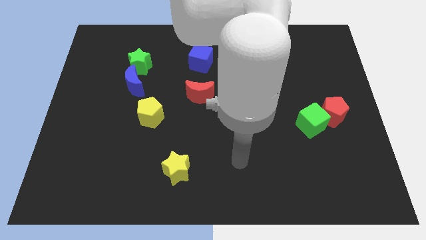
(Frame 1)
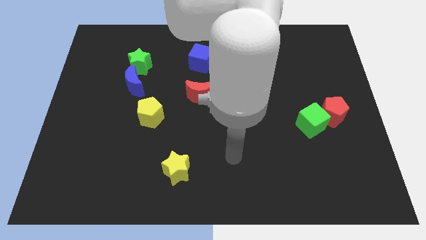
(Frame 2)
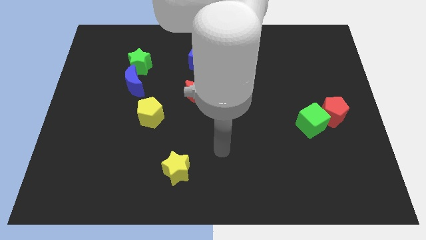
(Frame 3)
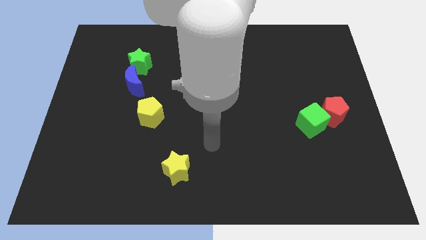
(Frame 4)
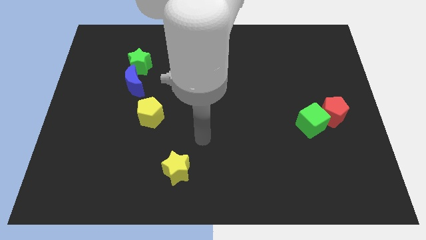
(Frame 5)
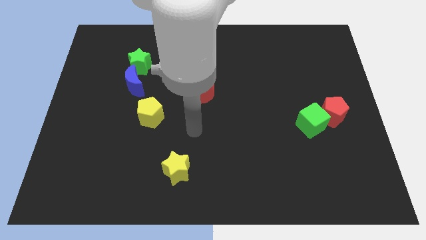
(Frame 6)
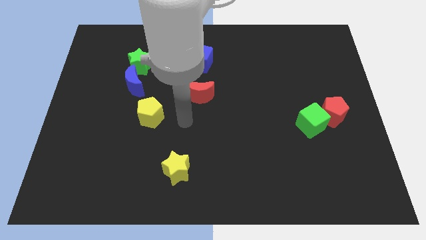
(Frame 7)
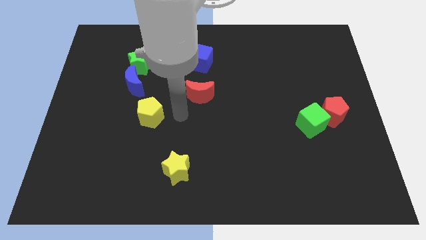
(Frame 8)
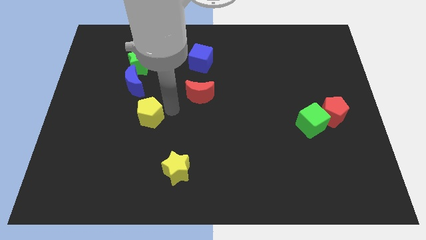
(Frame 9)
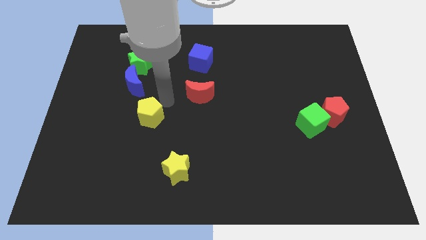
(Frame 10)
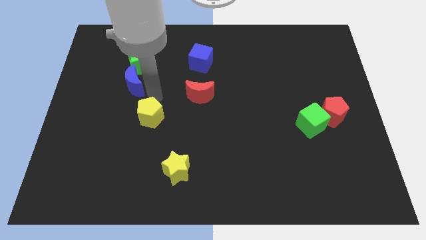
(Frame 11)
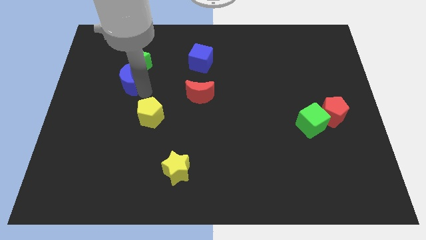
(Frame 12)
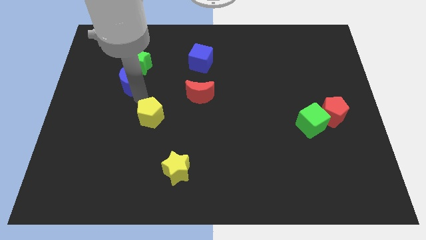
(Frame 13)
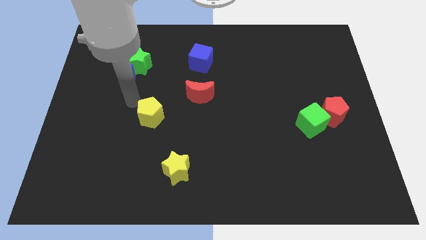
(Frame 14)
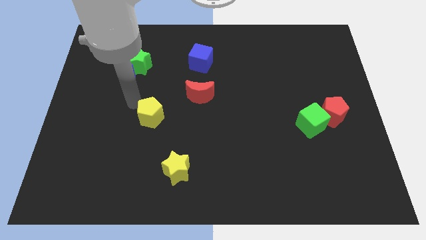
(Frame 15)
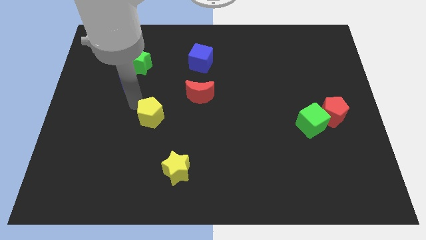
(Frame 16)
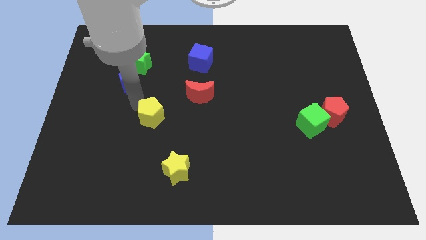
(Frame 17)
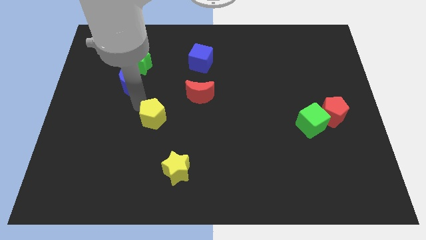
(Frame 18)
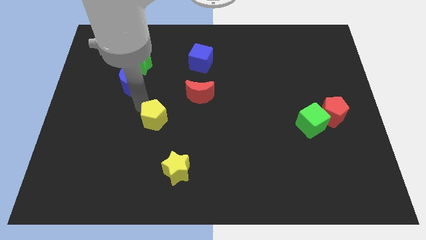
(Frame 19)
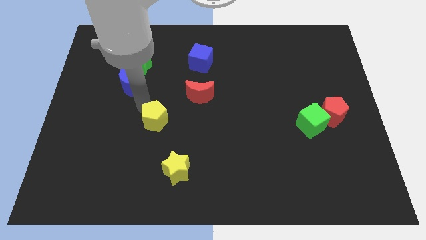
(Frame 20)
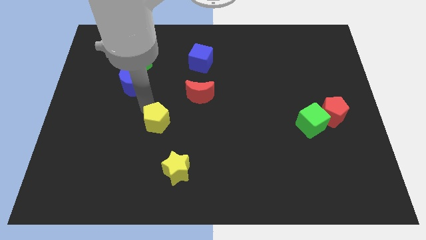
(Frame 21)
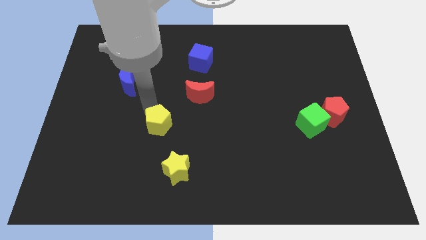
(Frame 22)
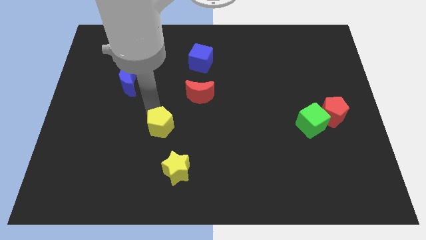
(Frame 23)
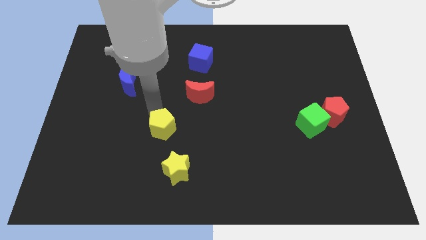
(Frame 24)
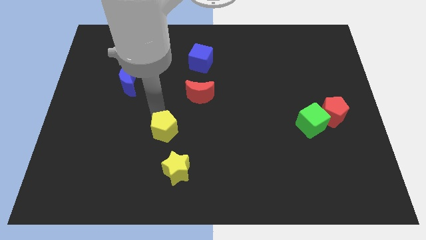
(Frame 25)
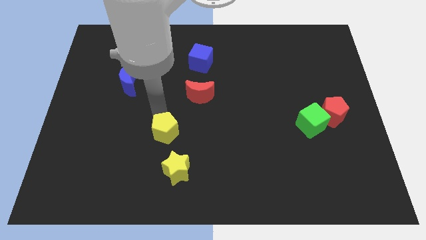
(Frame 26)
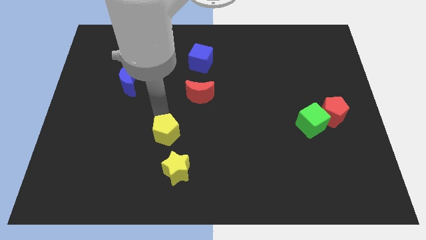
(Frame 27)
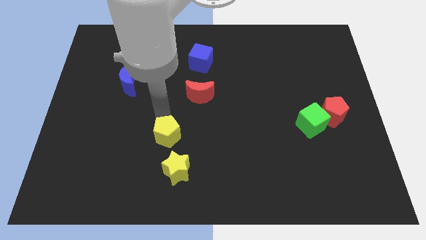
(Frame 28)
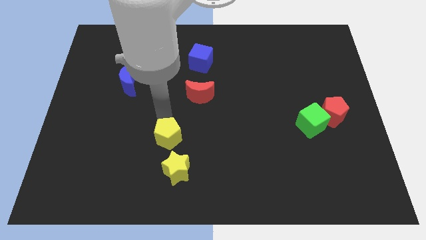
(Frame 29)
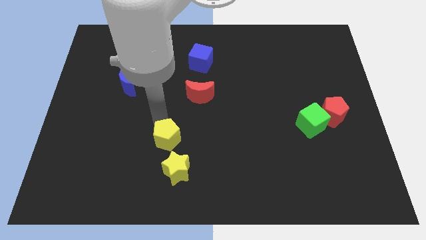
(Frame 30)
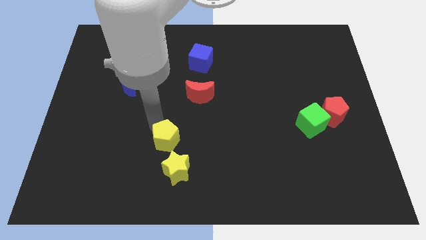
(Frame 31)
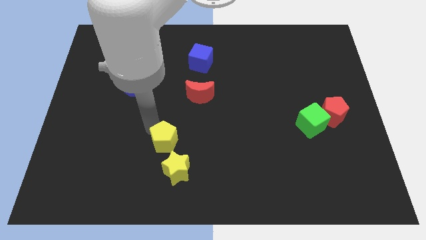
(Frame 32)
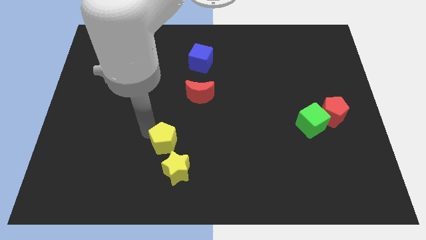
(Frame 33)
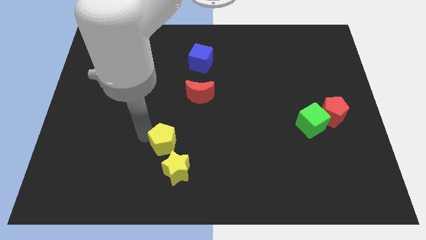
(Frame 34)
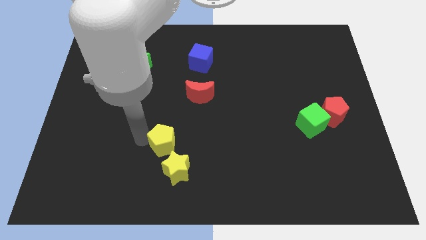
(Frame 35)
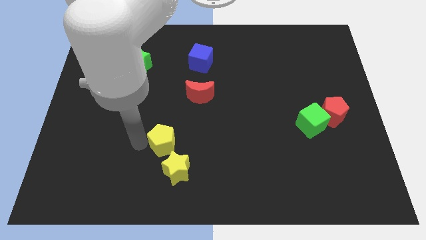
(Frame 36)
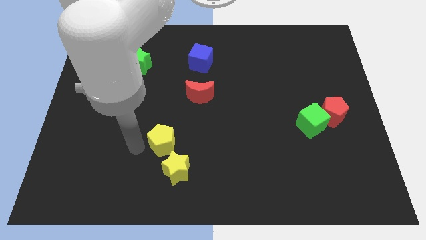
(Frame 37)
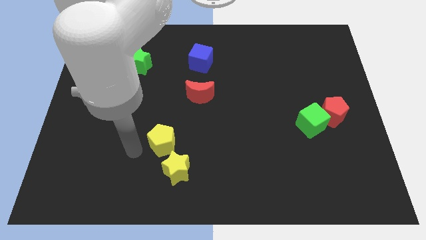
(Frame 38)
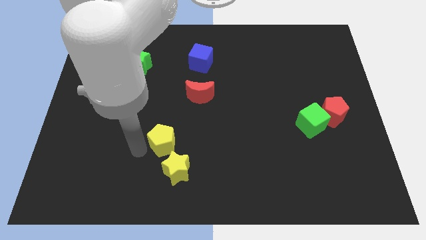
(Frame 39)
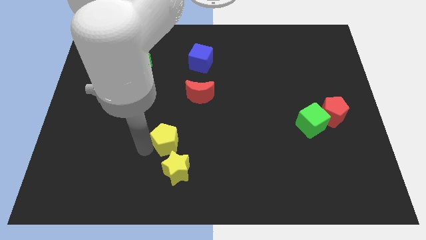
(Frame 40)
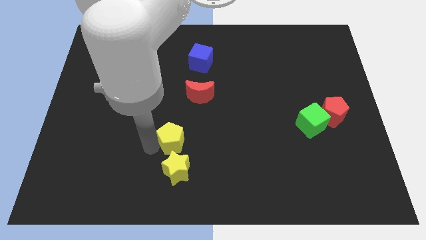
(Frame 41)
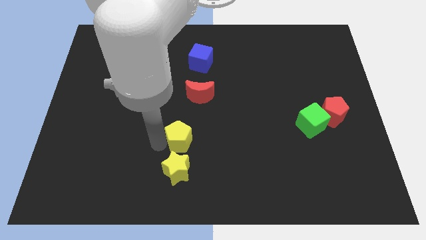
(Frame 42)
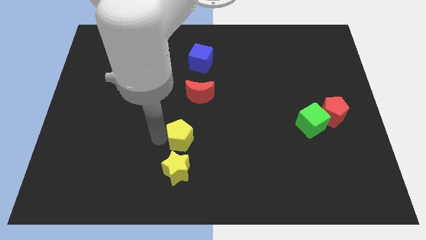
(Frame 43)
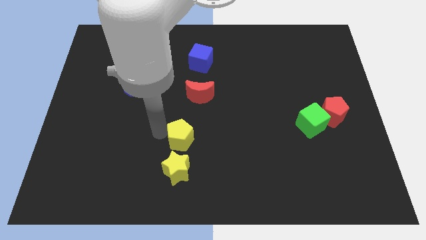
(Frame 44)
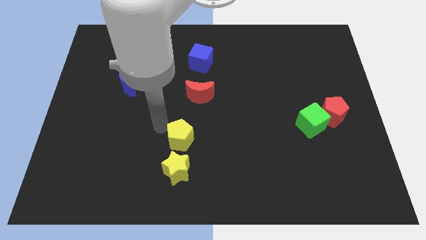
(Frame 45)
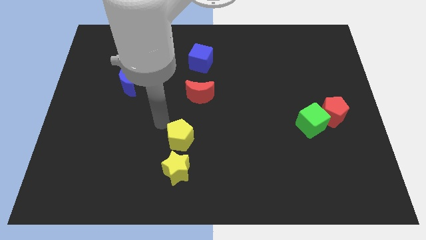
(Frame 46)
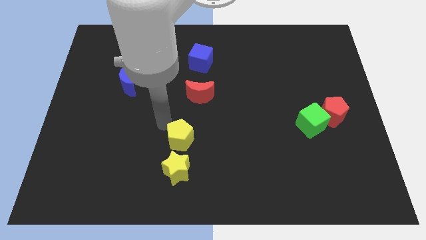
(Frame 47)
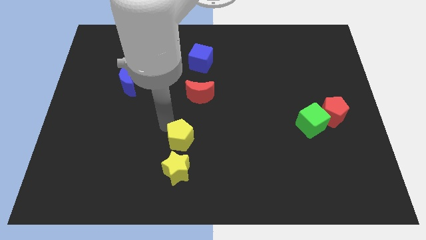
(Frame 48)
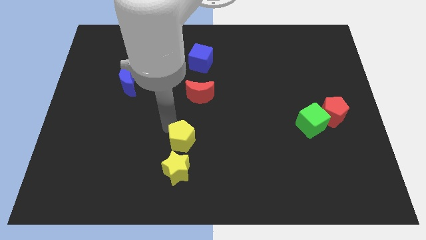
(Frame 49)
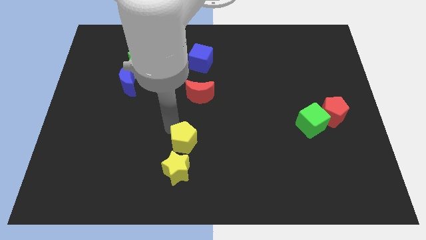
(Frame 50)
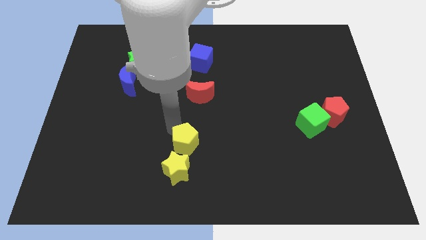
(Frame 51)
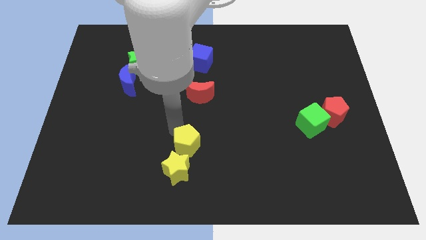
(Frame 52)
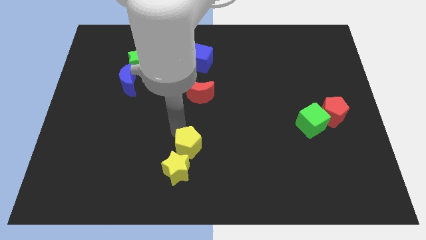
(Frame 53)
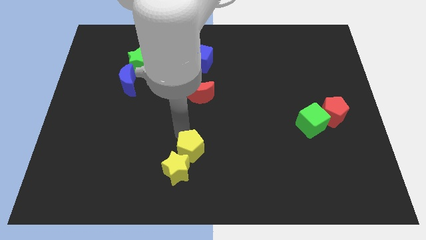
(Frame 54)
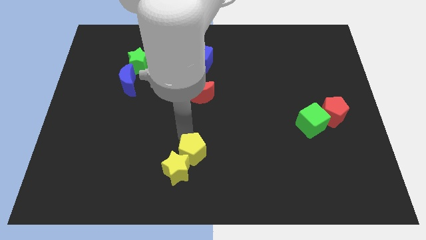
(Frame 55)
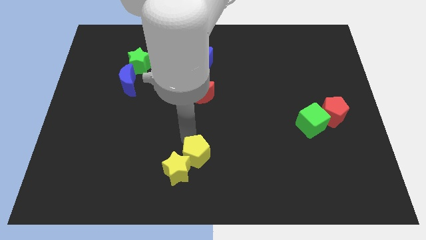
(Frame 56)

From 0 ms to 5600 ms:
put the yellow pentagon right of the yellow star

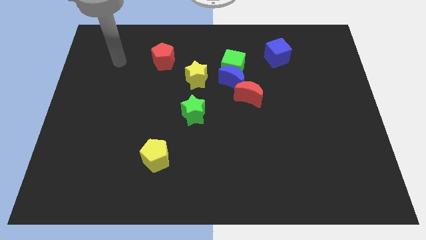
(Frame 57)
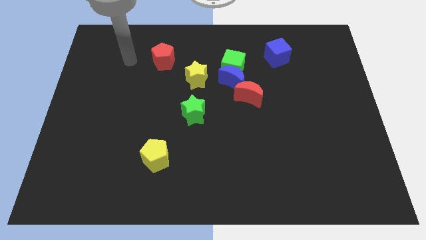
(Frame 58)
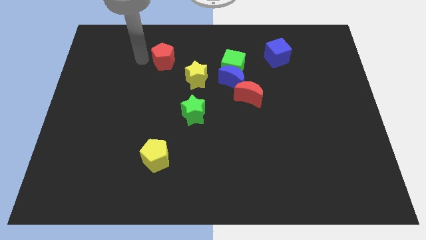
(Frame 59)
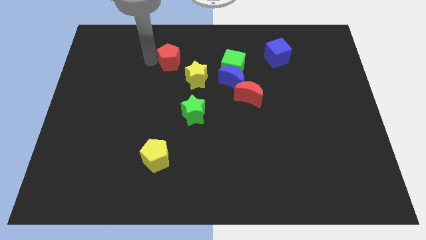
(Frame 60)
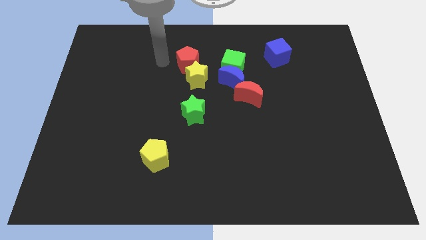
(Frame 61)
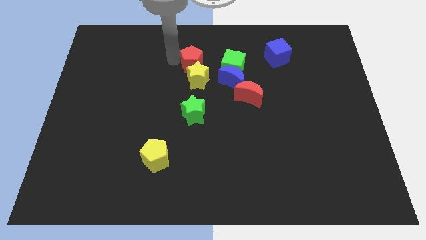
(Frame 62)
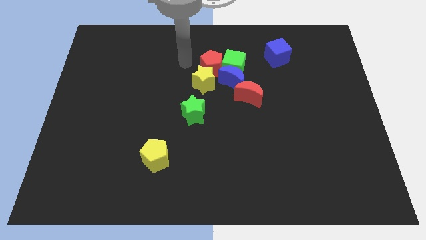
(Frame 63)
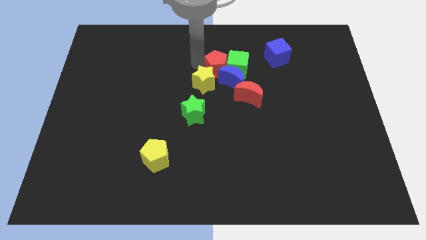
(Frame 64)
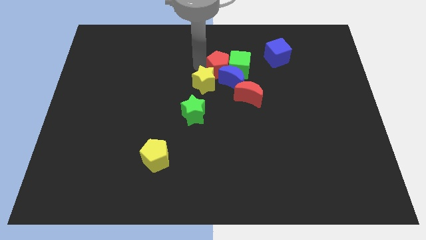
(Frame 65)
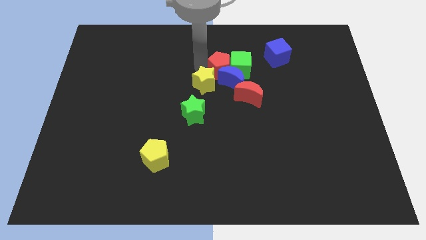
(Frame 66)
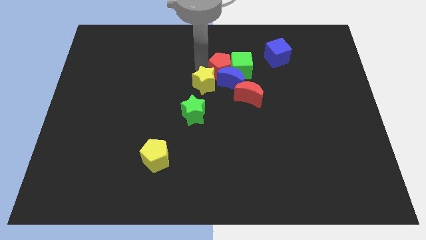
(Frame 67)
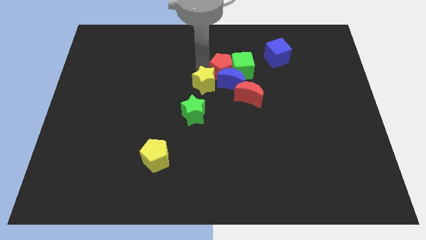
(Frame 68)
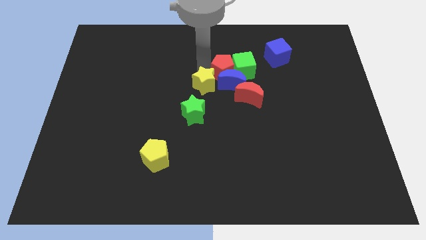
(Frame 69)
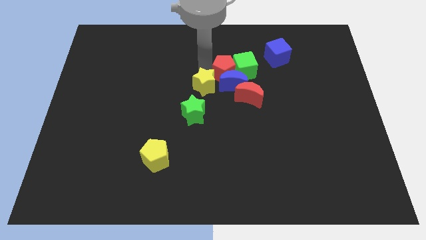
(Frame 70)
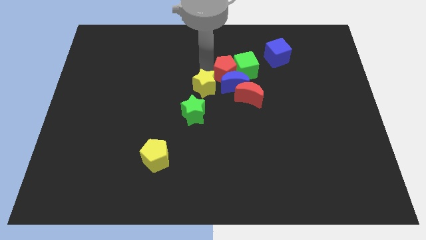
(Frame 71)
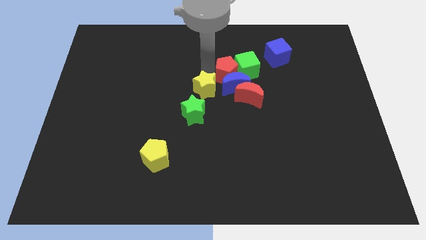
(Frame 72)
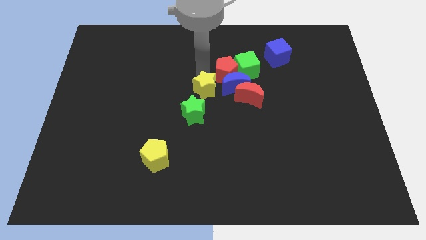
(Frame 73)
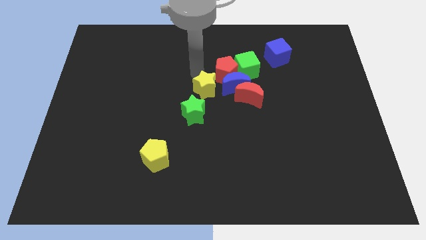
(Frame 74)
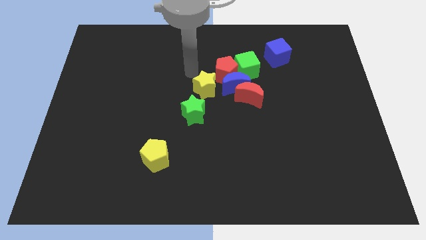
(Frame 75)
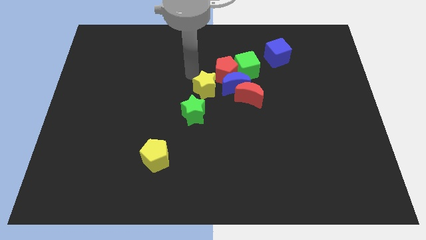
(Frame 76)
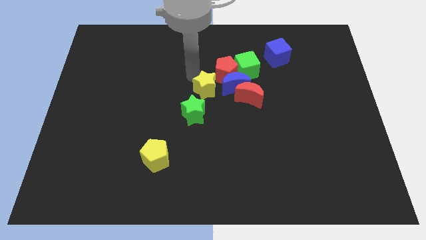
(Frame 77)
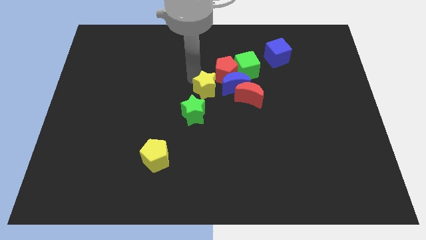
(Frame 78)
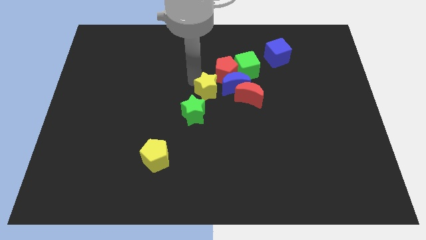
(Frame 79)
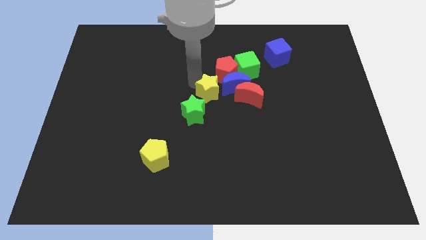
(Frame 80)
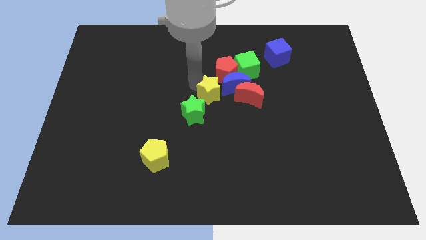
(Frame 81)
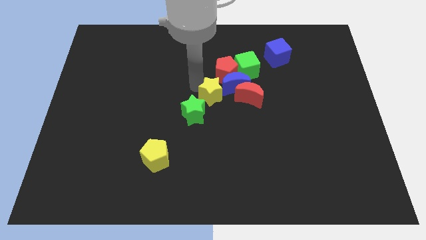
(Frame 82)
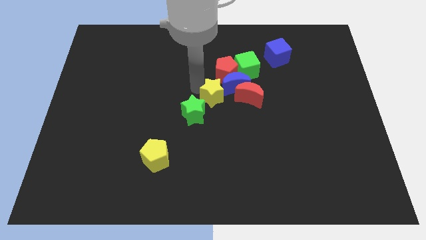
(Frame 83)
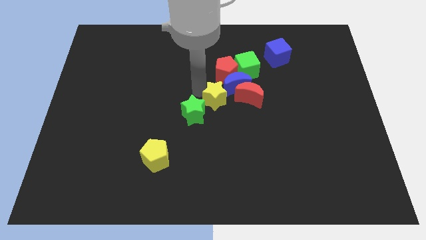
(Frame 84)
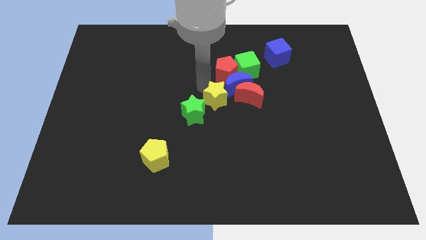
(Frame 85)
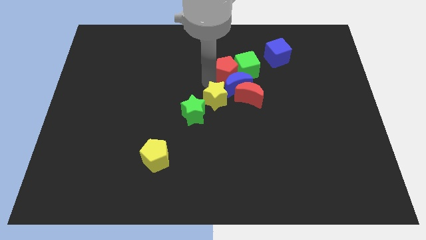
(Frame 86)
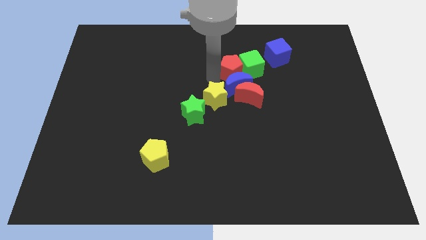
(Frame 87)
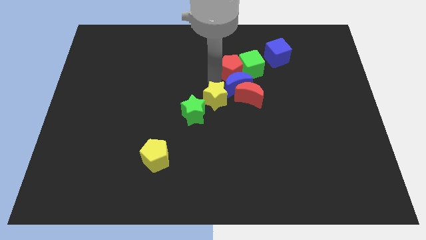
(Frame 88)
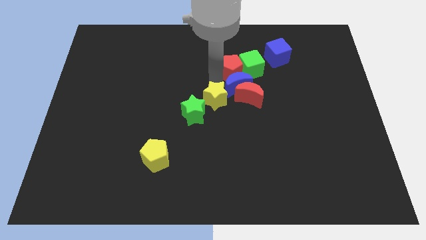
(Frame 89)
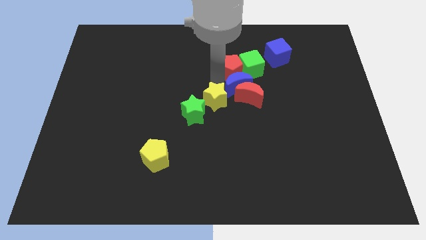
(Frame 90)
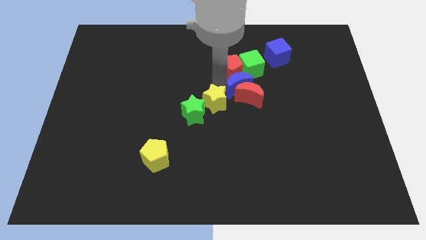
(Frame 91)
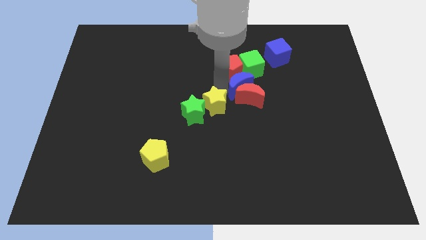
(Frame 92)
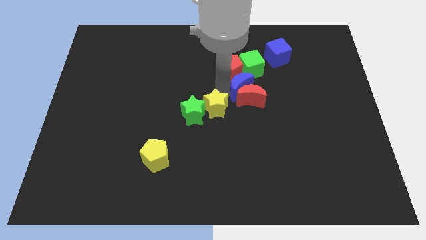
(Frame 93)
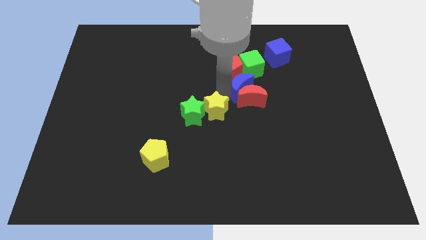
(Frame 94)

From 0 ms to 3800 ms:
push the yellow star to the bottom right side of the green star
